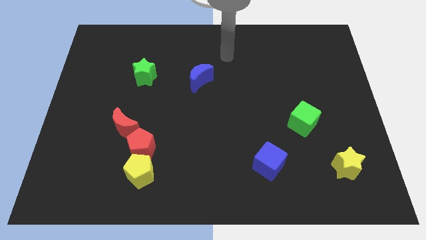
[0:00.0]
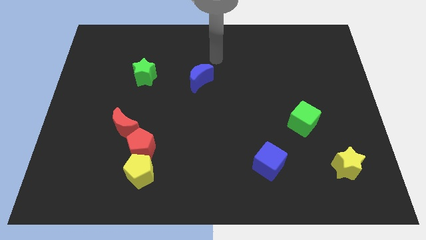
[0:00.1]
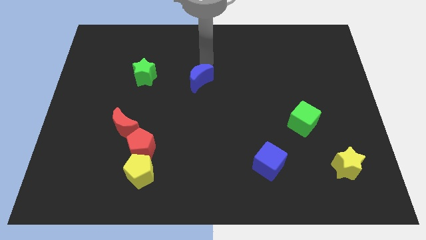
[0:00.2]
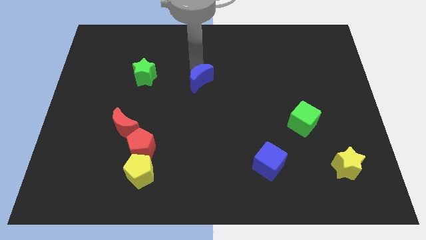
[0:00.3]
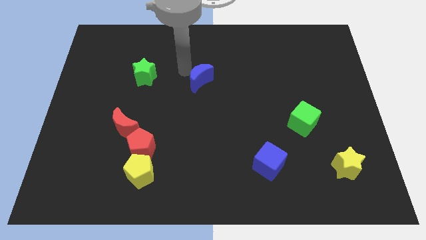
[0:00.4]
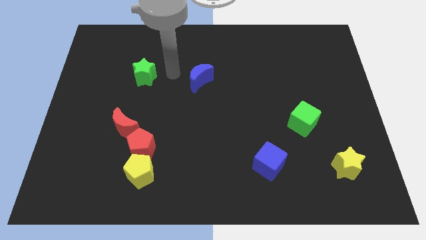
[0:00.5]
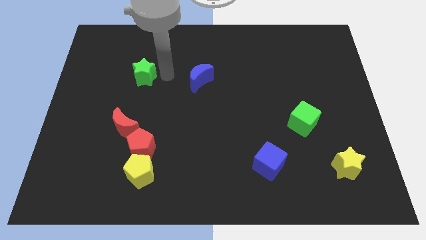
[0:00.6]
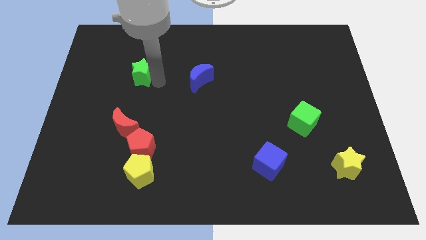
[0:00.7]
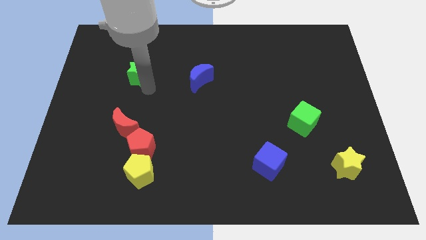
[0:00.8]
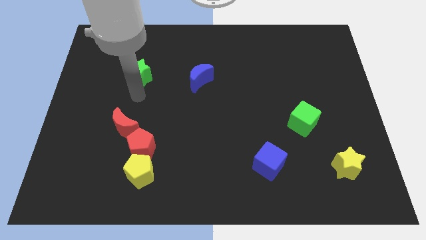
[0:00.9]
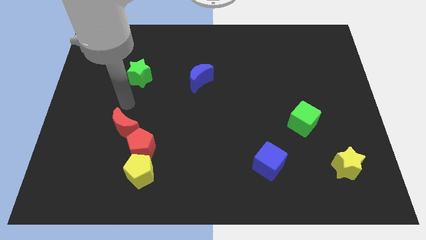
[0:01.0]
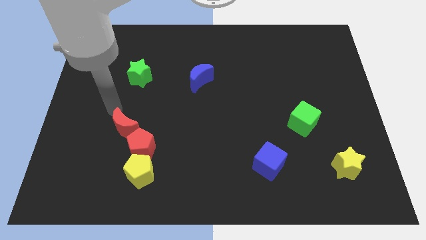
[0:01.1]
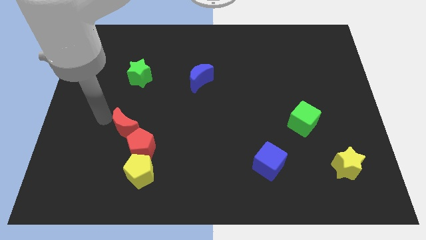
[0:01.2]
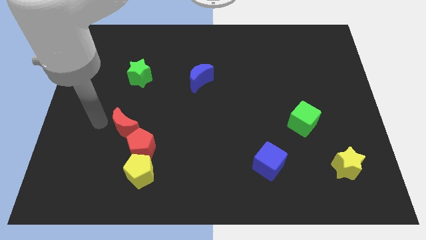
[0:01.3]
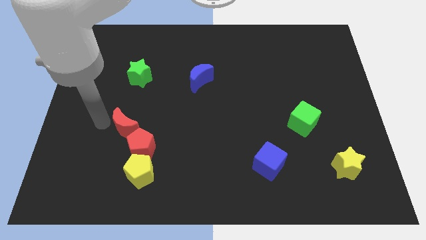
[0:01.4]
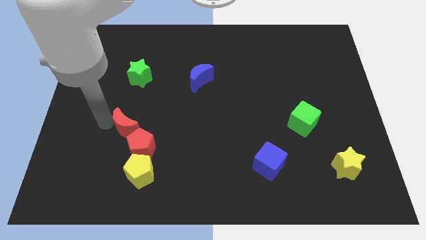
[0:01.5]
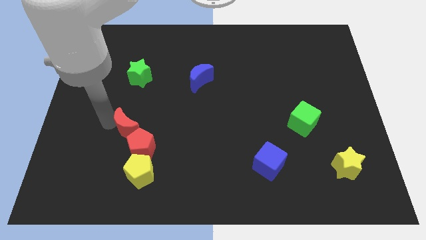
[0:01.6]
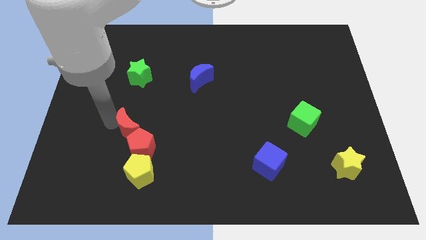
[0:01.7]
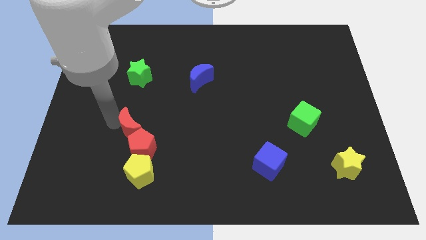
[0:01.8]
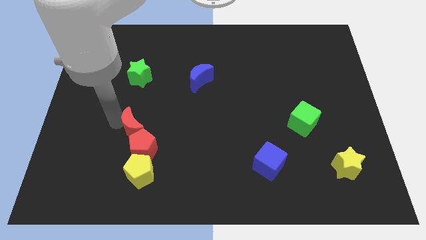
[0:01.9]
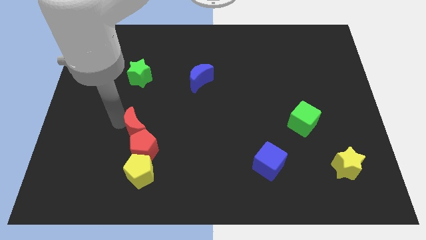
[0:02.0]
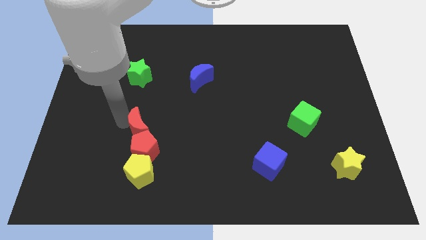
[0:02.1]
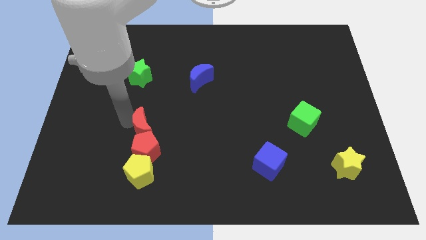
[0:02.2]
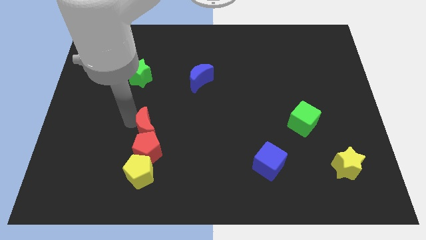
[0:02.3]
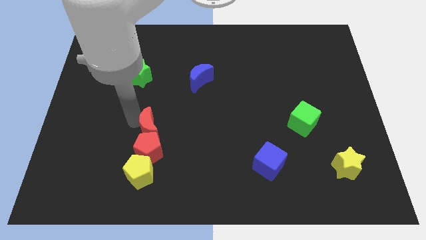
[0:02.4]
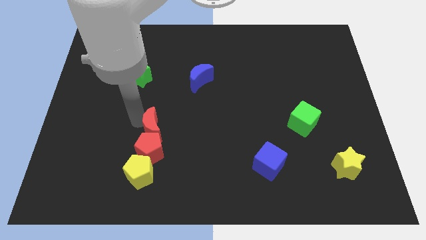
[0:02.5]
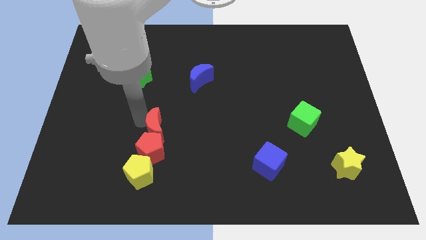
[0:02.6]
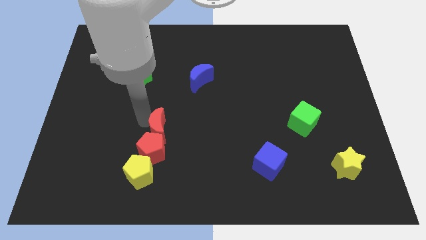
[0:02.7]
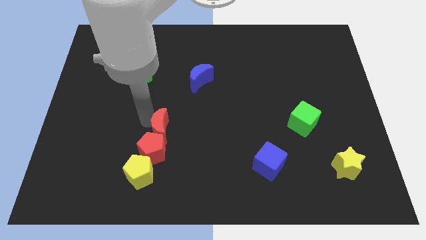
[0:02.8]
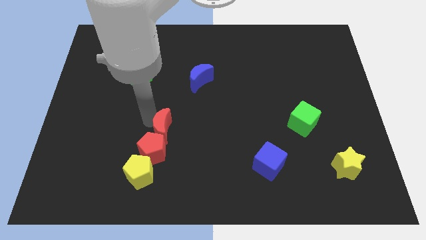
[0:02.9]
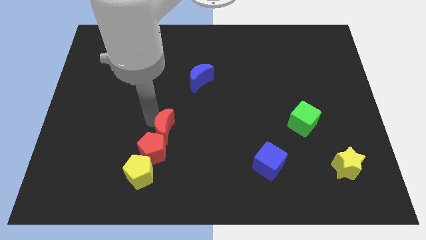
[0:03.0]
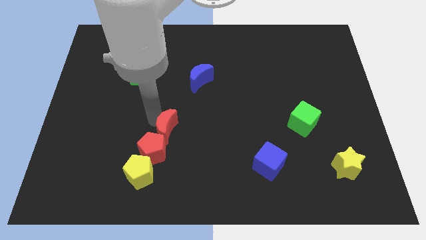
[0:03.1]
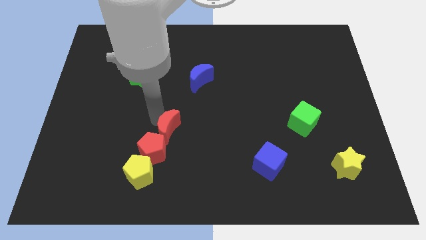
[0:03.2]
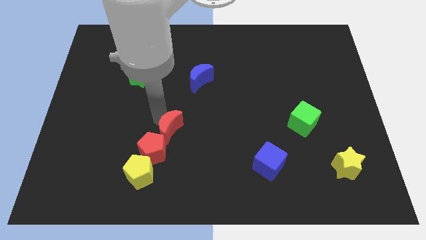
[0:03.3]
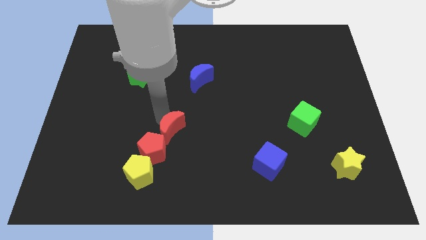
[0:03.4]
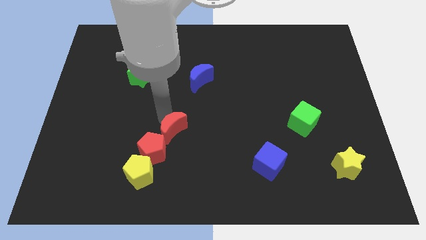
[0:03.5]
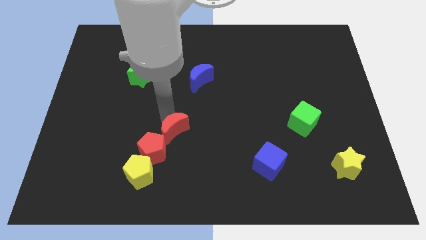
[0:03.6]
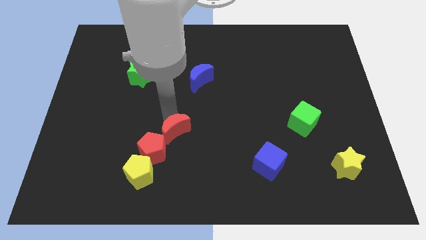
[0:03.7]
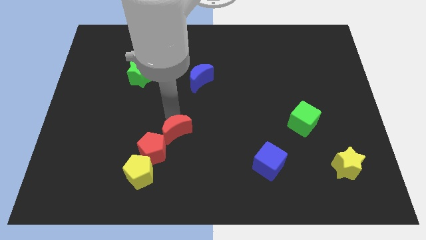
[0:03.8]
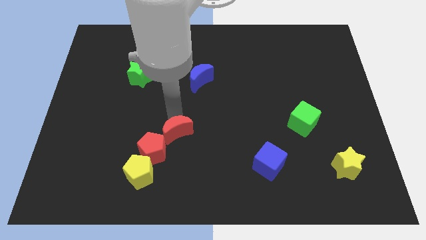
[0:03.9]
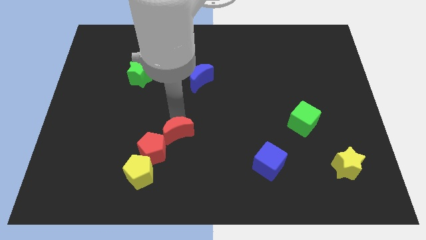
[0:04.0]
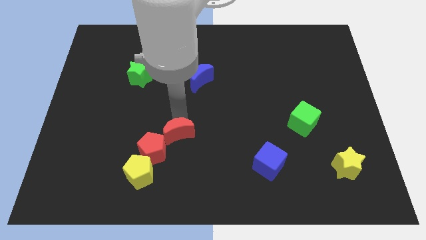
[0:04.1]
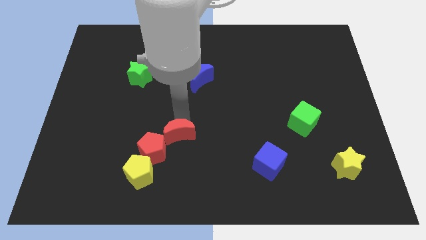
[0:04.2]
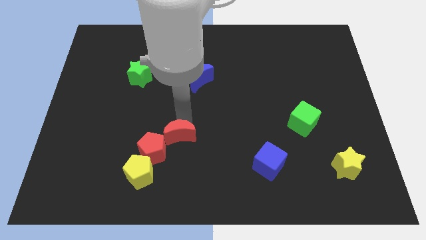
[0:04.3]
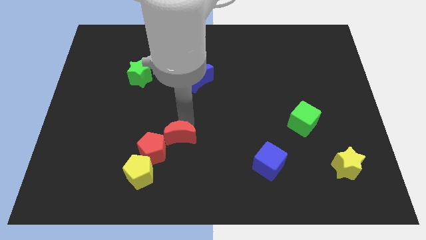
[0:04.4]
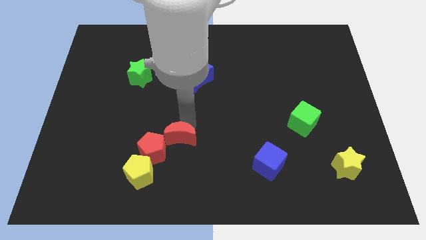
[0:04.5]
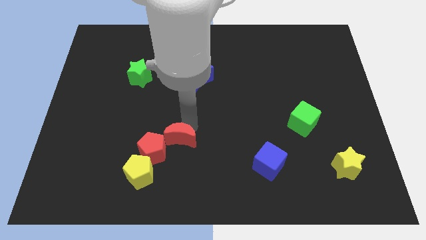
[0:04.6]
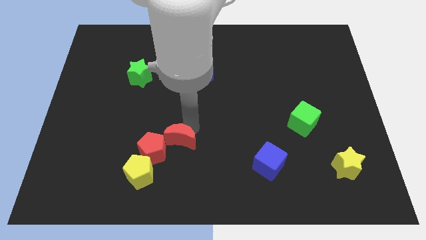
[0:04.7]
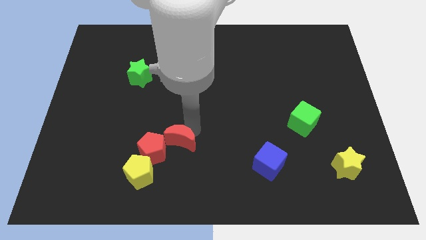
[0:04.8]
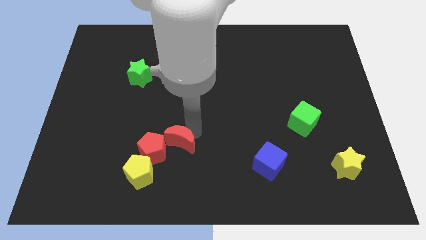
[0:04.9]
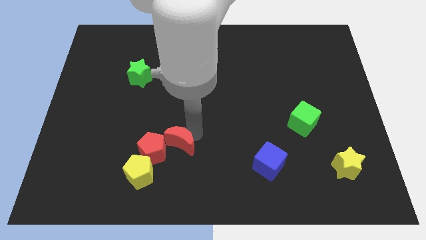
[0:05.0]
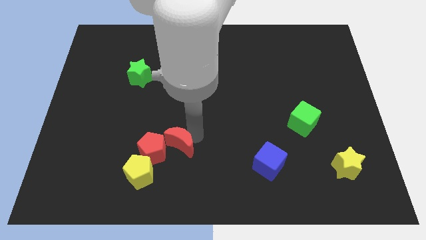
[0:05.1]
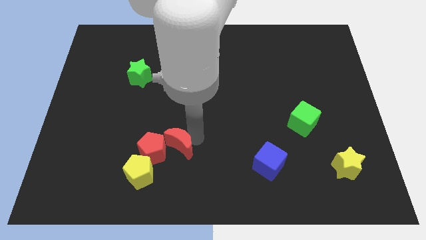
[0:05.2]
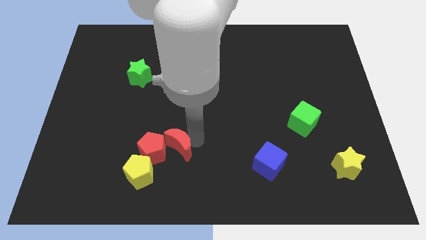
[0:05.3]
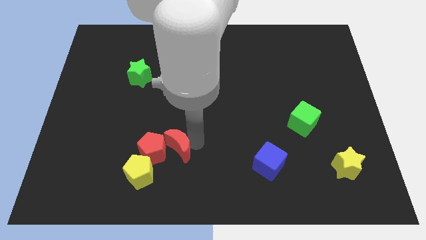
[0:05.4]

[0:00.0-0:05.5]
put the red moon diagonally down and to the right of the red pentagon

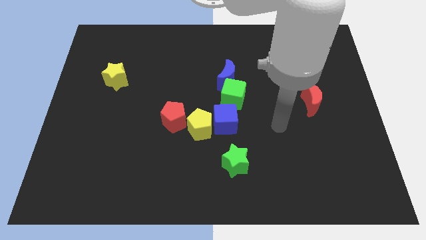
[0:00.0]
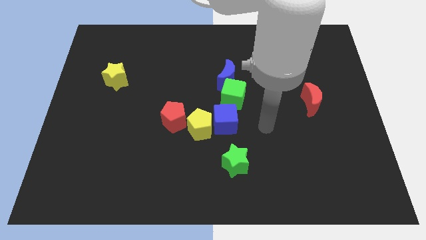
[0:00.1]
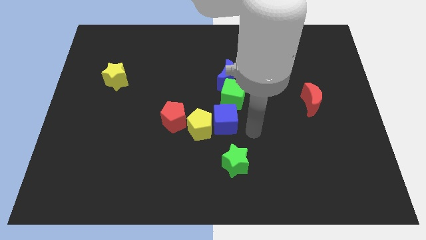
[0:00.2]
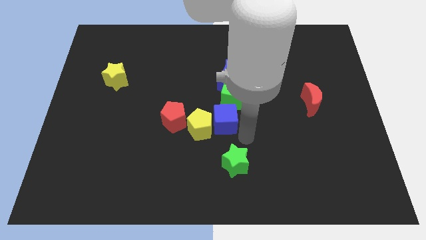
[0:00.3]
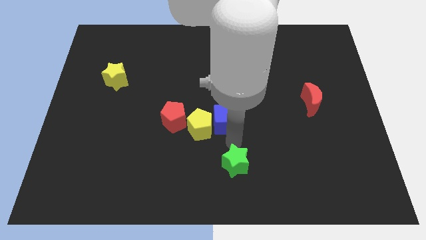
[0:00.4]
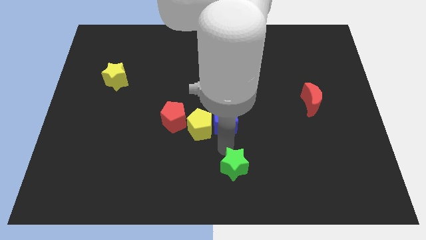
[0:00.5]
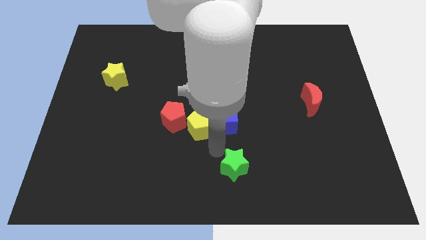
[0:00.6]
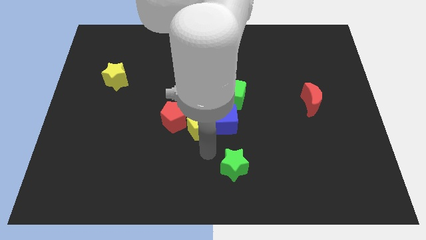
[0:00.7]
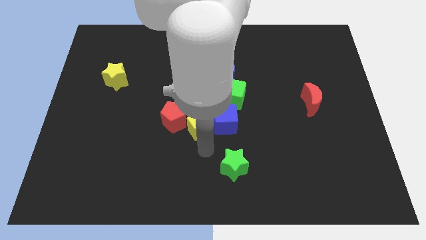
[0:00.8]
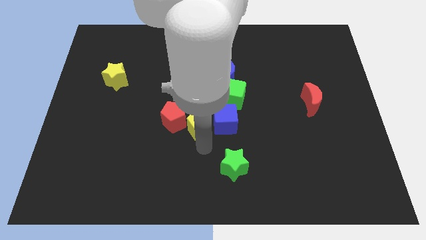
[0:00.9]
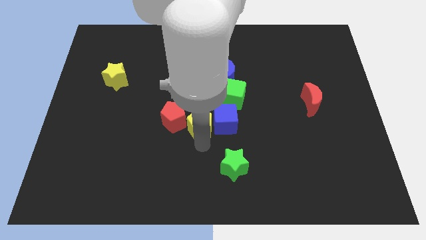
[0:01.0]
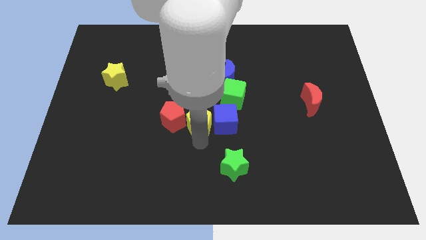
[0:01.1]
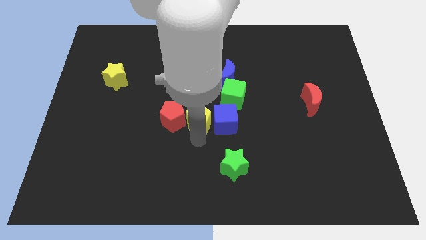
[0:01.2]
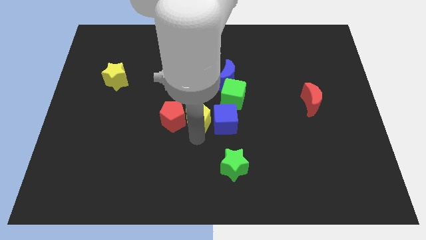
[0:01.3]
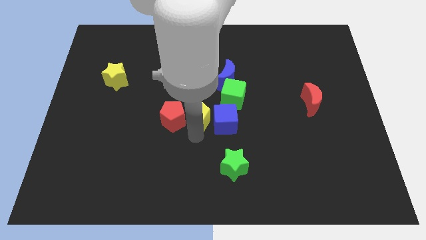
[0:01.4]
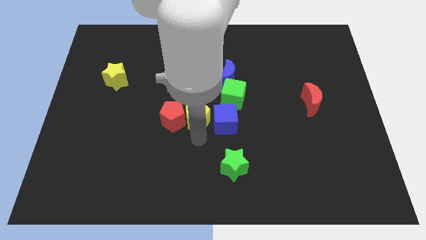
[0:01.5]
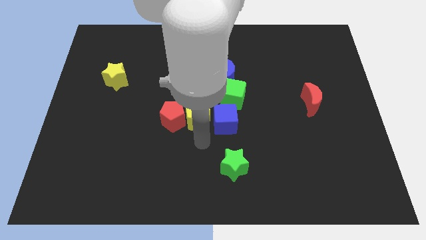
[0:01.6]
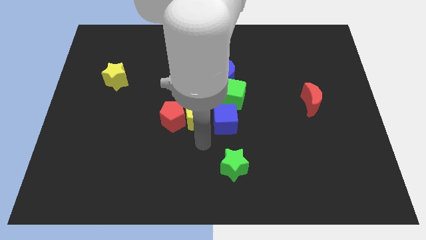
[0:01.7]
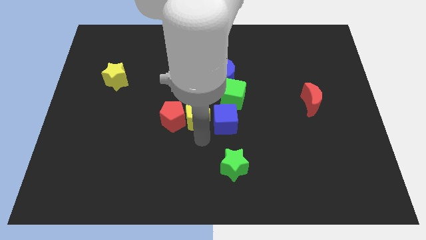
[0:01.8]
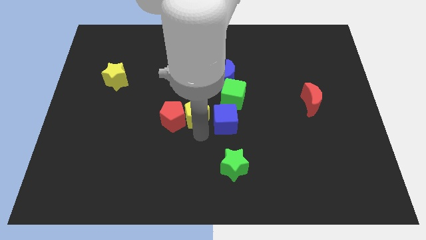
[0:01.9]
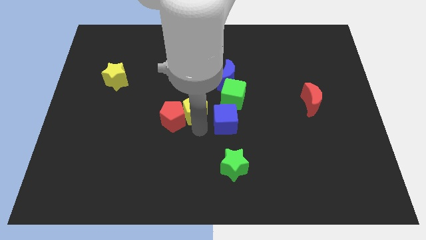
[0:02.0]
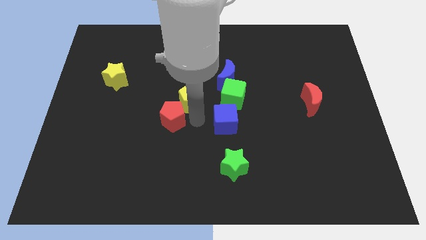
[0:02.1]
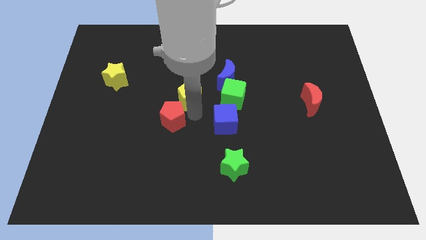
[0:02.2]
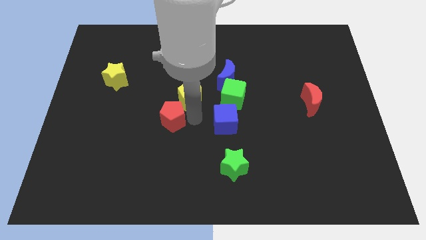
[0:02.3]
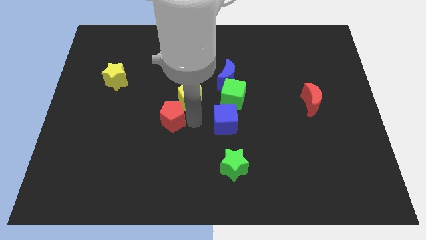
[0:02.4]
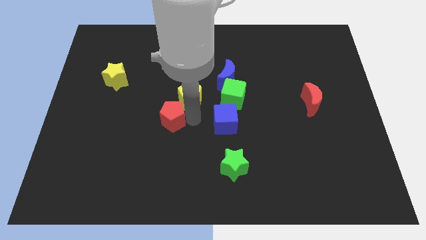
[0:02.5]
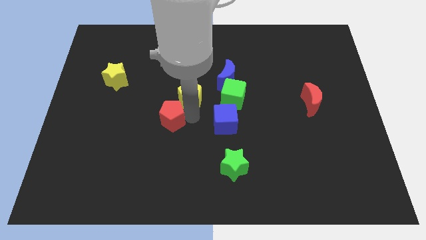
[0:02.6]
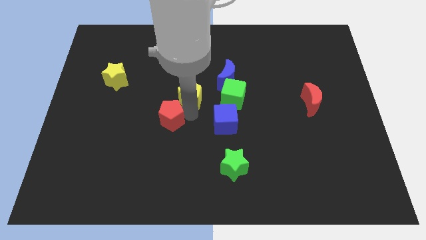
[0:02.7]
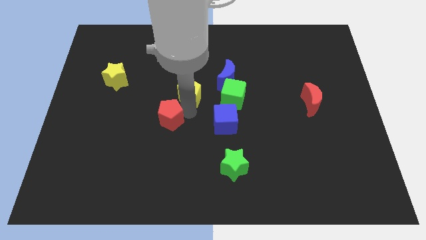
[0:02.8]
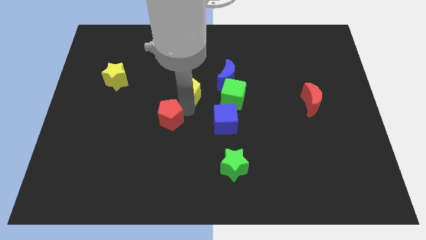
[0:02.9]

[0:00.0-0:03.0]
put the yellow pentagon to the left side of the blue moon
